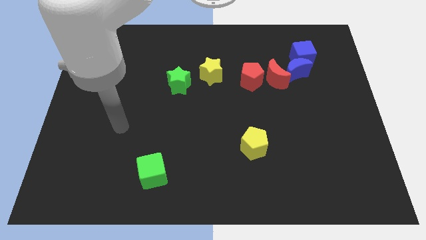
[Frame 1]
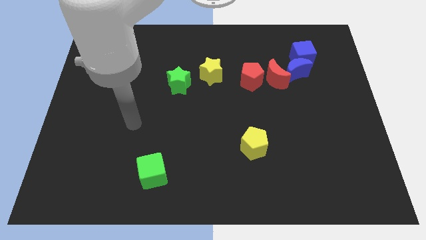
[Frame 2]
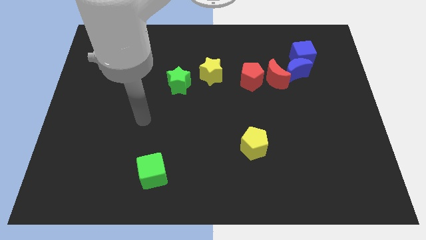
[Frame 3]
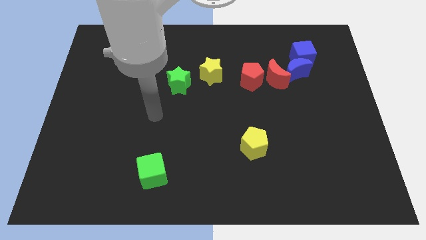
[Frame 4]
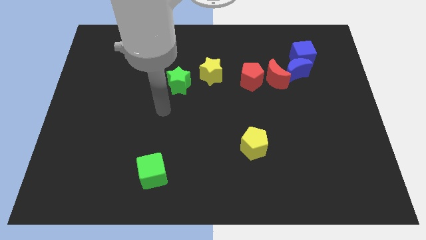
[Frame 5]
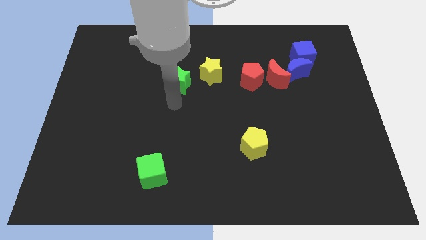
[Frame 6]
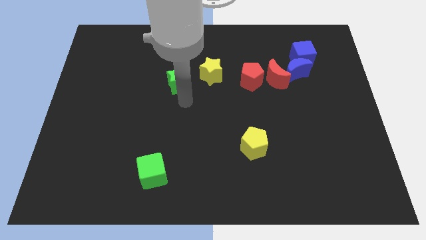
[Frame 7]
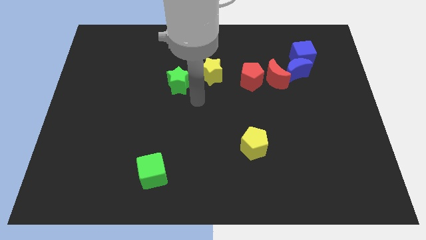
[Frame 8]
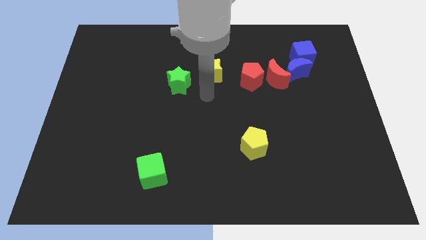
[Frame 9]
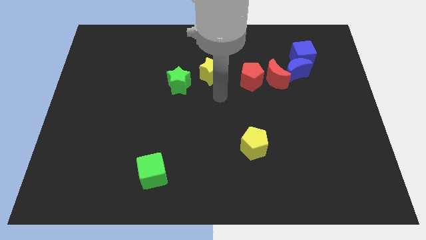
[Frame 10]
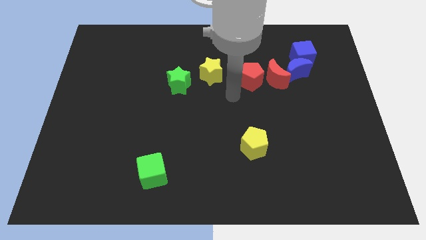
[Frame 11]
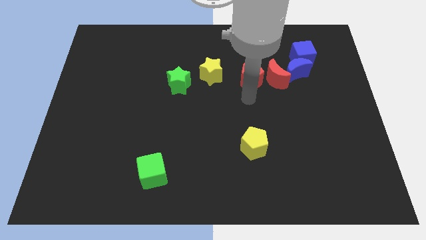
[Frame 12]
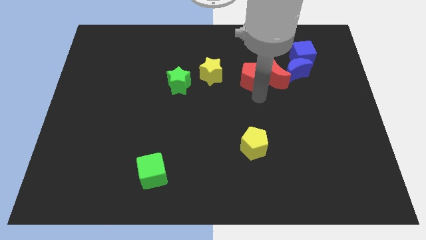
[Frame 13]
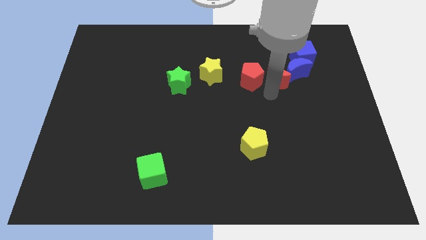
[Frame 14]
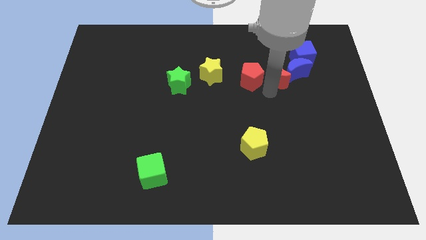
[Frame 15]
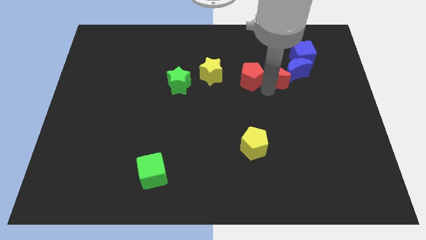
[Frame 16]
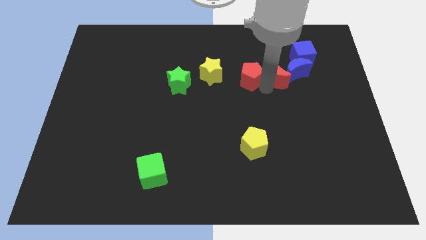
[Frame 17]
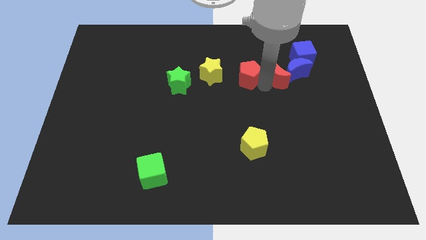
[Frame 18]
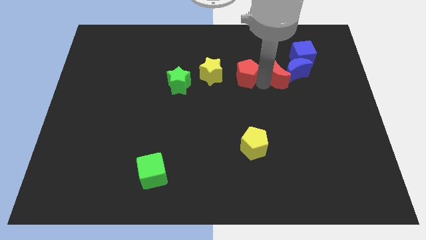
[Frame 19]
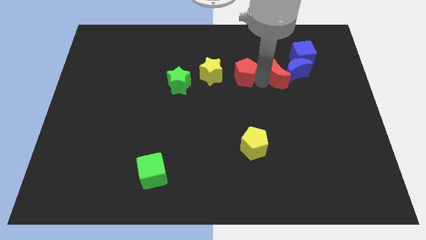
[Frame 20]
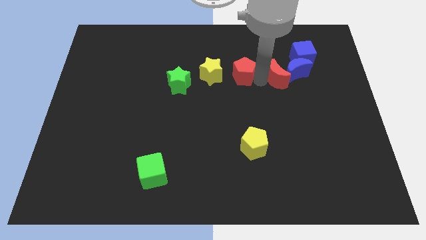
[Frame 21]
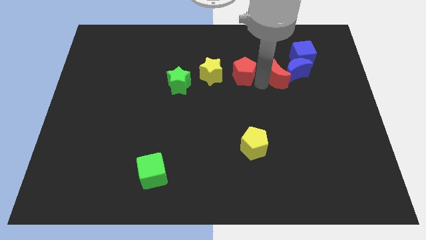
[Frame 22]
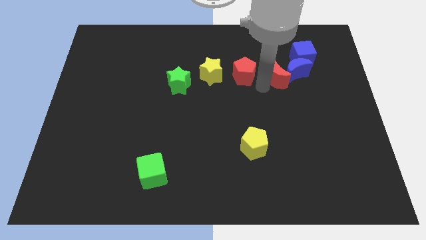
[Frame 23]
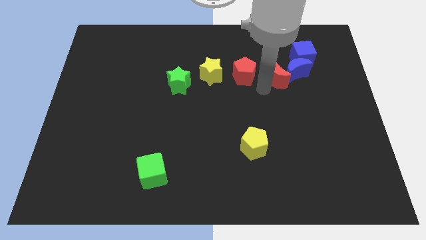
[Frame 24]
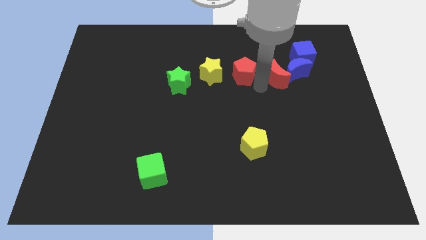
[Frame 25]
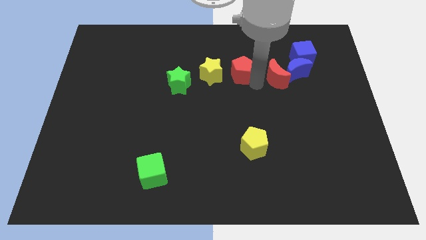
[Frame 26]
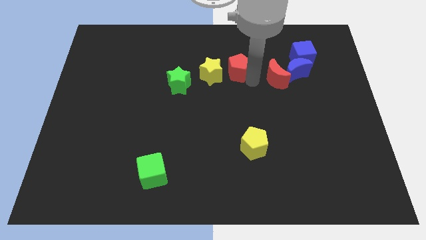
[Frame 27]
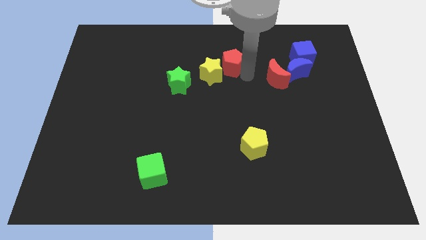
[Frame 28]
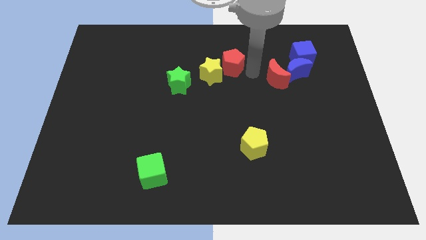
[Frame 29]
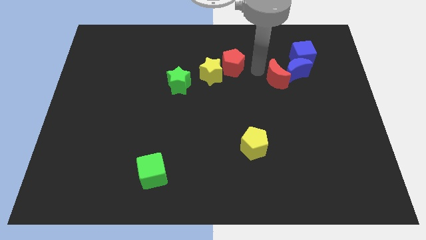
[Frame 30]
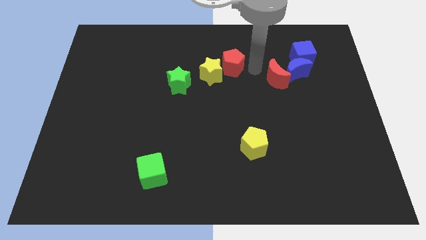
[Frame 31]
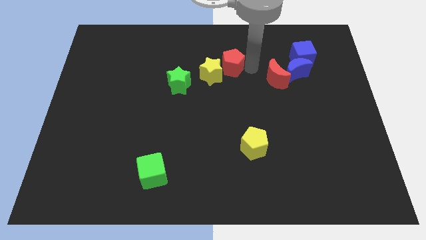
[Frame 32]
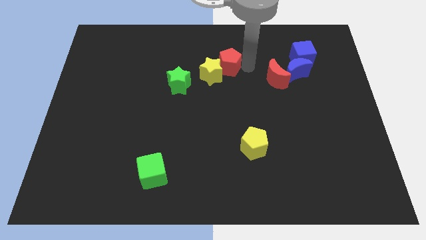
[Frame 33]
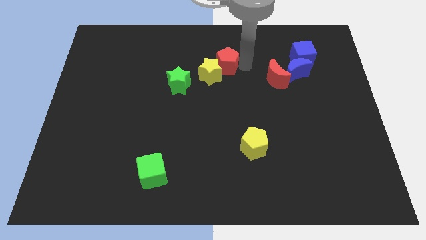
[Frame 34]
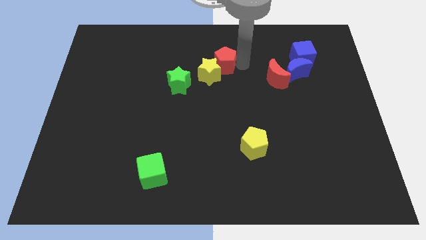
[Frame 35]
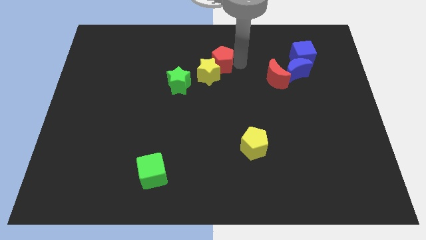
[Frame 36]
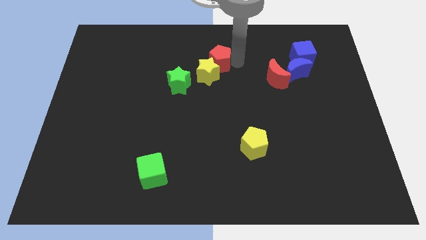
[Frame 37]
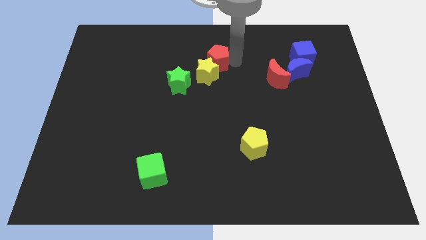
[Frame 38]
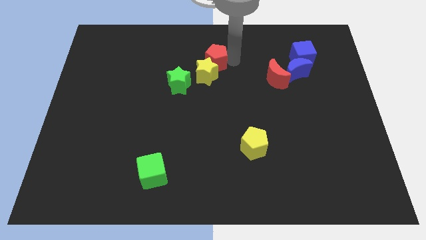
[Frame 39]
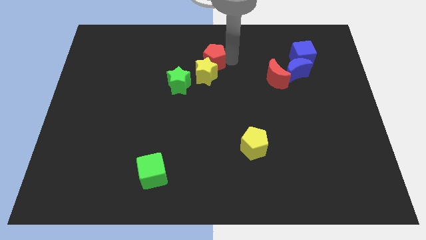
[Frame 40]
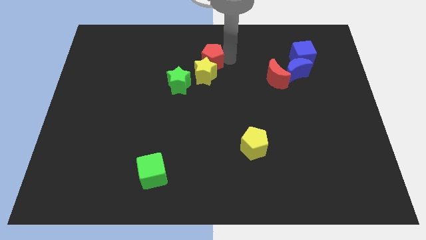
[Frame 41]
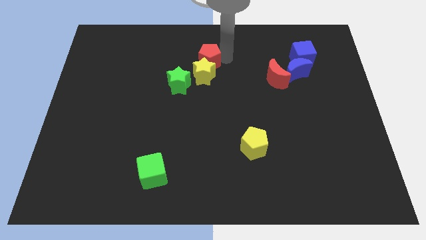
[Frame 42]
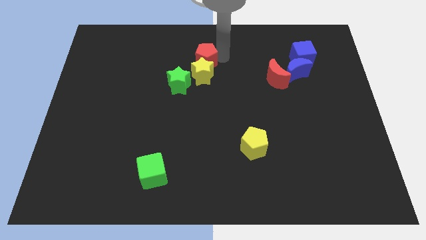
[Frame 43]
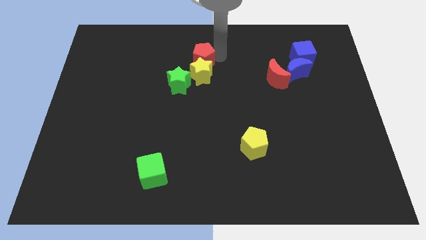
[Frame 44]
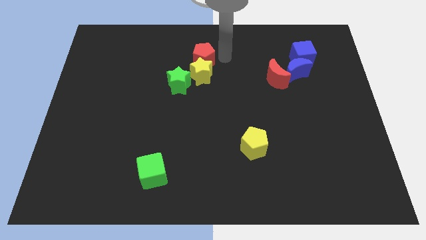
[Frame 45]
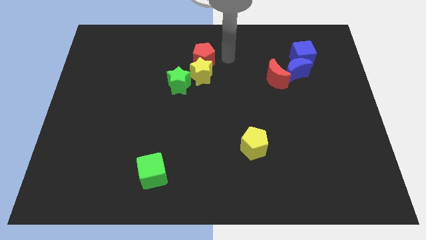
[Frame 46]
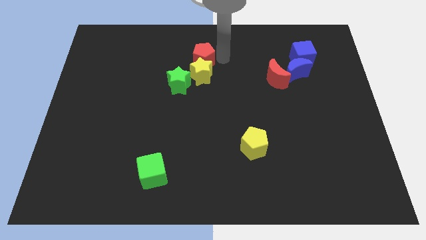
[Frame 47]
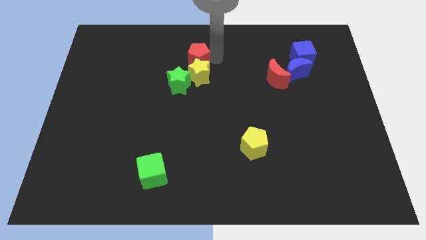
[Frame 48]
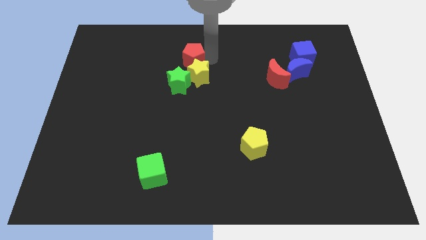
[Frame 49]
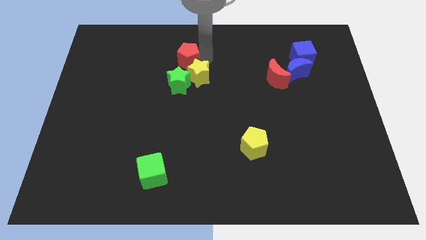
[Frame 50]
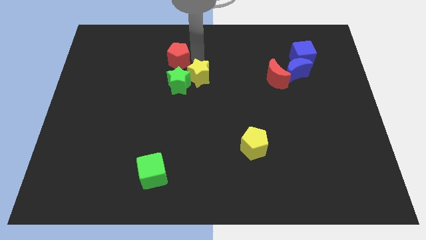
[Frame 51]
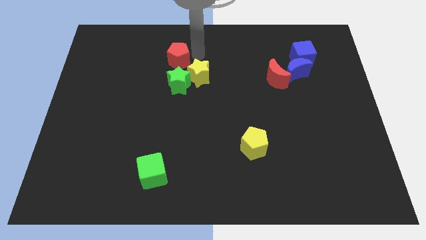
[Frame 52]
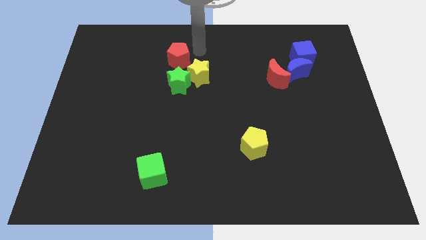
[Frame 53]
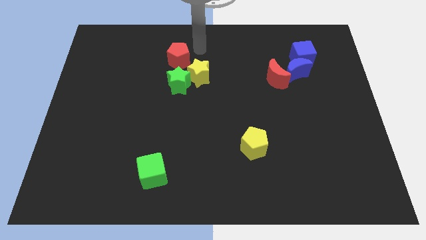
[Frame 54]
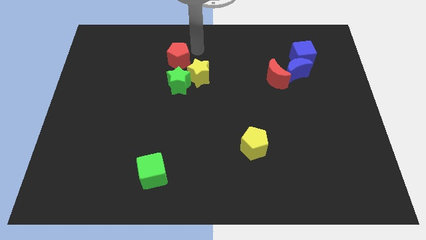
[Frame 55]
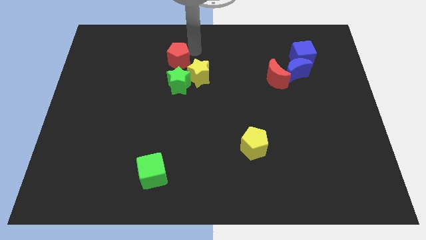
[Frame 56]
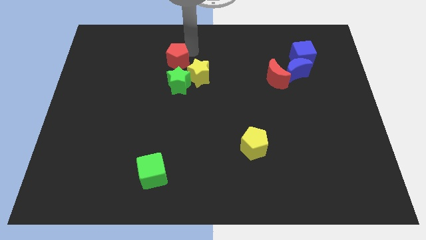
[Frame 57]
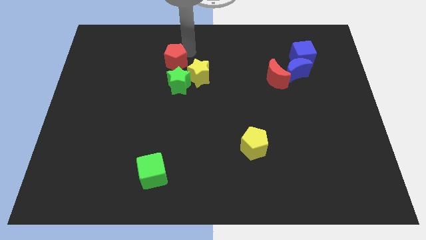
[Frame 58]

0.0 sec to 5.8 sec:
move the red pentagon diagonally up and to the left of the green star

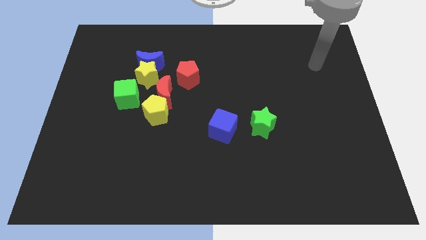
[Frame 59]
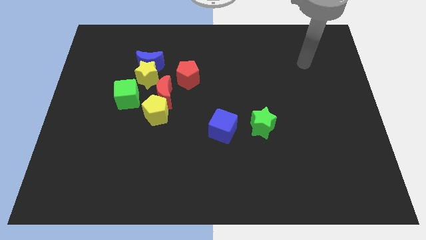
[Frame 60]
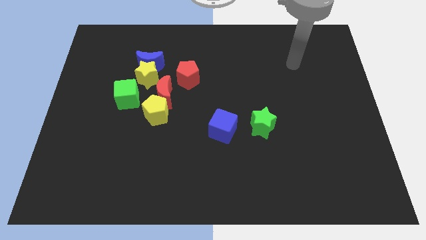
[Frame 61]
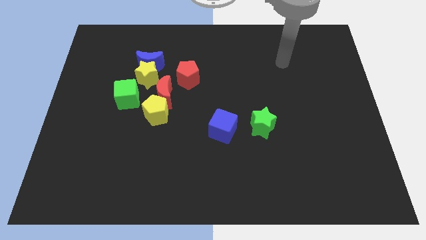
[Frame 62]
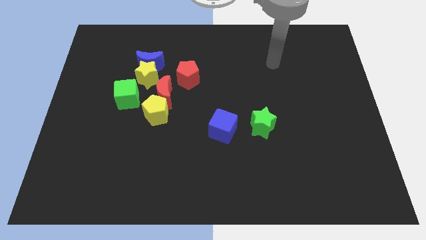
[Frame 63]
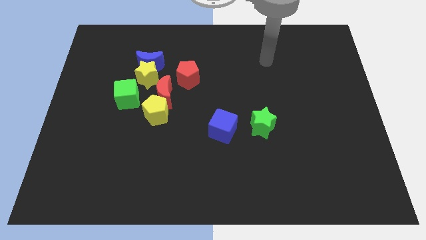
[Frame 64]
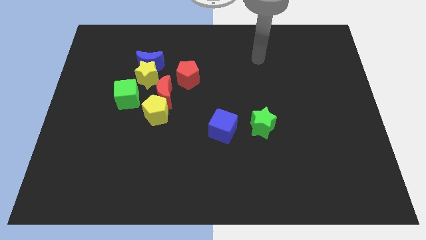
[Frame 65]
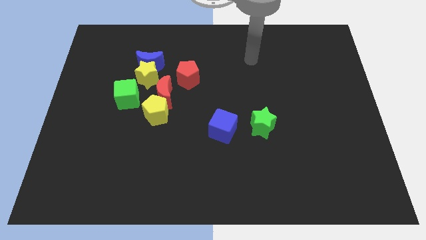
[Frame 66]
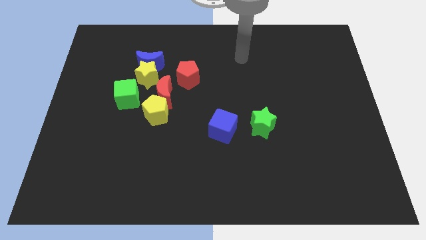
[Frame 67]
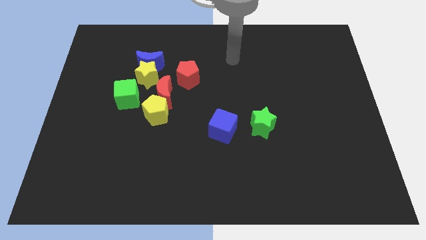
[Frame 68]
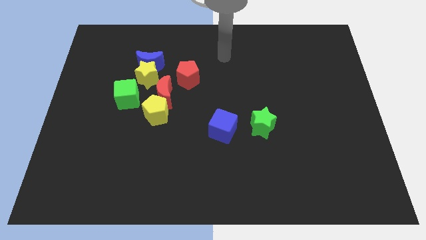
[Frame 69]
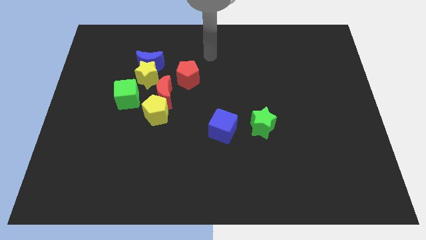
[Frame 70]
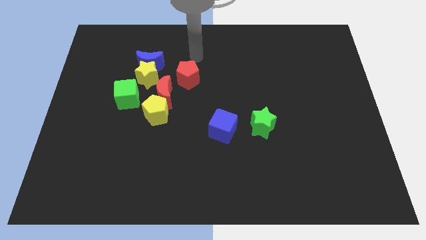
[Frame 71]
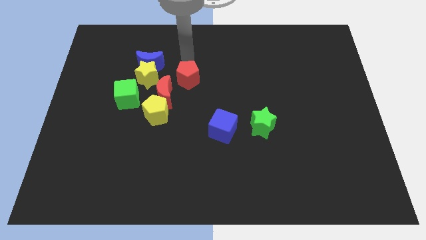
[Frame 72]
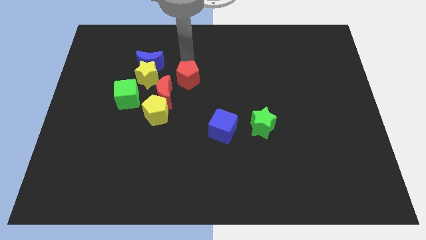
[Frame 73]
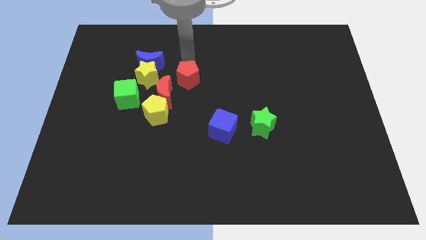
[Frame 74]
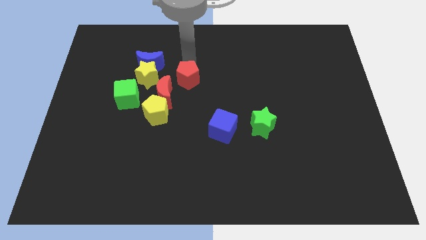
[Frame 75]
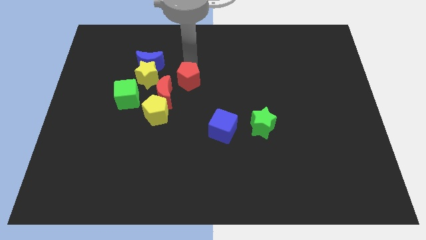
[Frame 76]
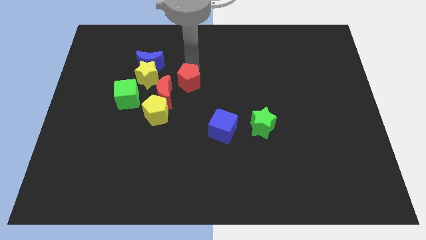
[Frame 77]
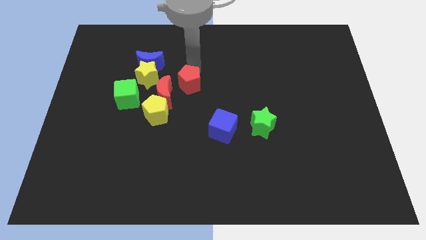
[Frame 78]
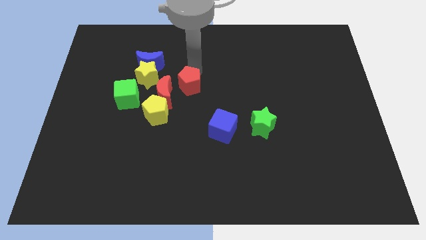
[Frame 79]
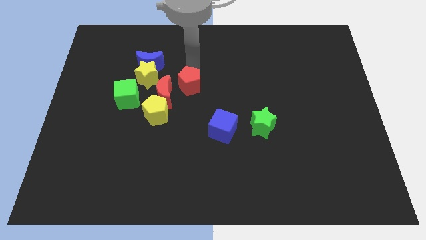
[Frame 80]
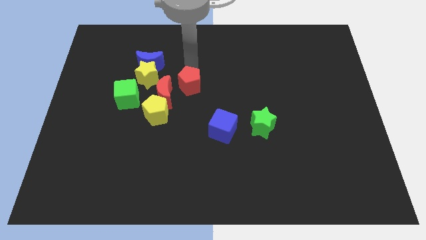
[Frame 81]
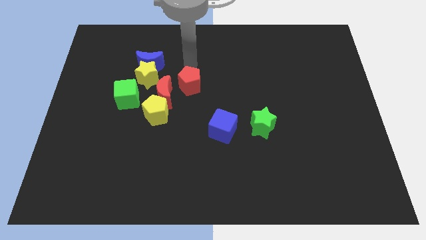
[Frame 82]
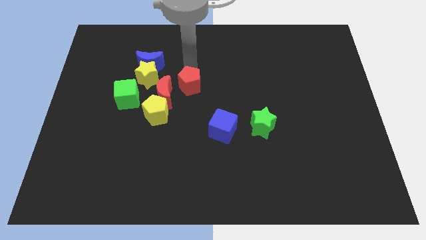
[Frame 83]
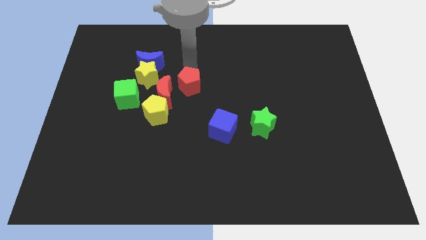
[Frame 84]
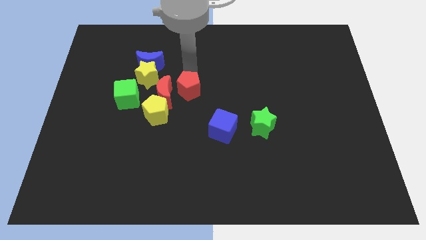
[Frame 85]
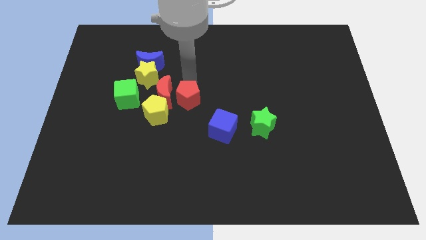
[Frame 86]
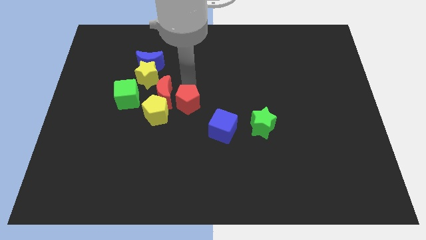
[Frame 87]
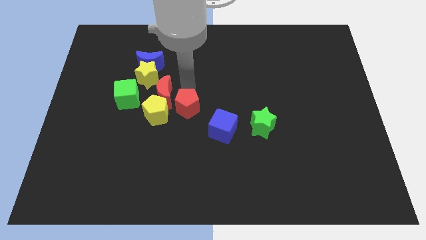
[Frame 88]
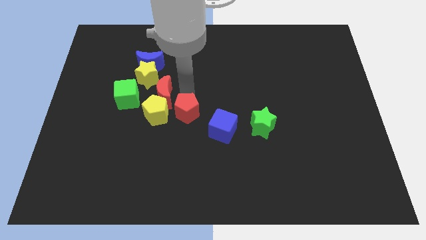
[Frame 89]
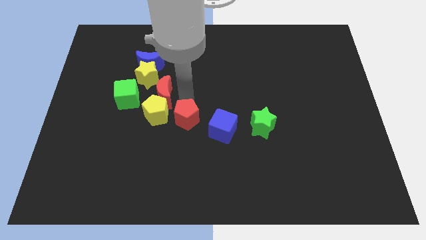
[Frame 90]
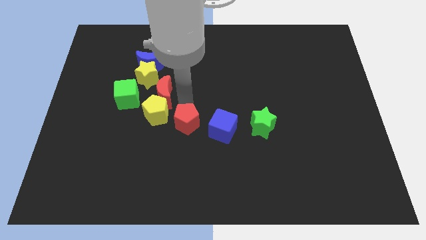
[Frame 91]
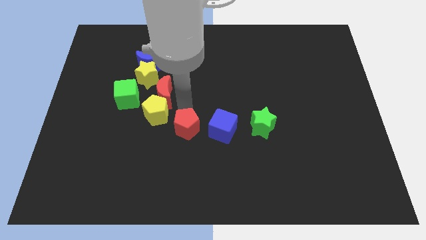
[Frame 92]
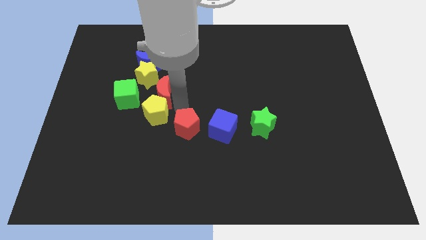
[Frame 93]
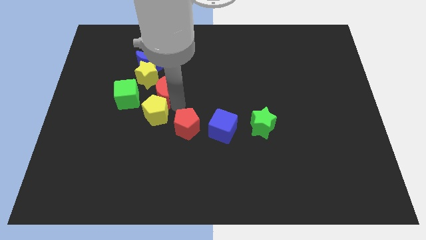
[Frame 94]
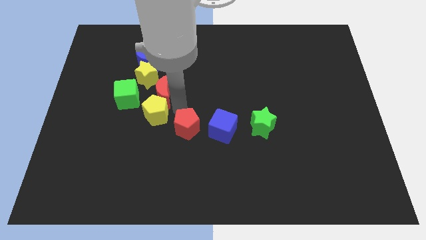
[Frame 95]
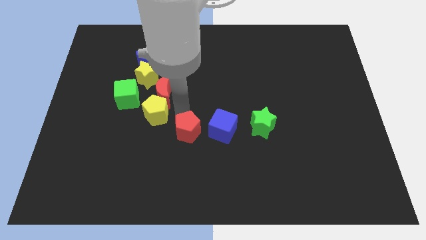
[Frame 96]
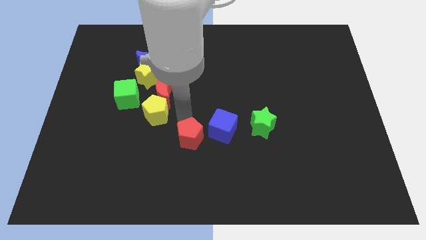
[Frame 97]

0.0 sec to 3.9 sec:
move the red pentagon diagonally down and to the left of the blue cube
